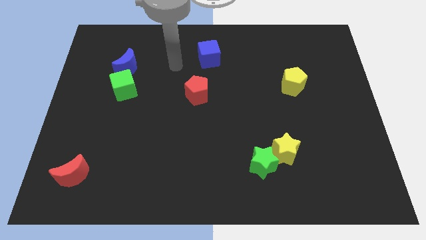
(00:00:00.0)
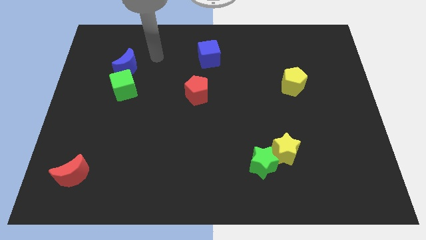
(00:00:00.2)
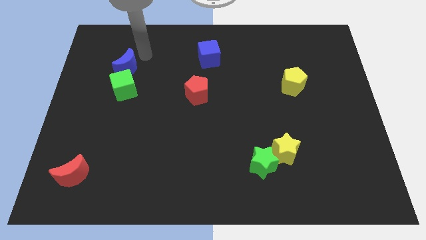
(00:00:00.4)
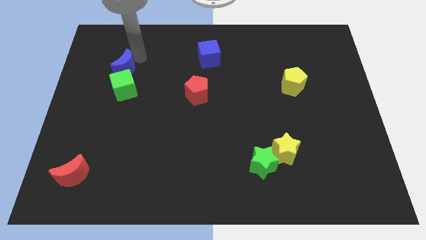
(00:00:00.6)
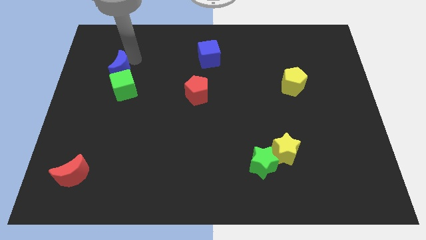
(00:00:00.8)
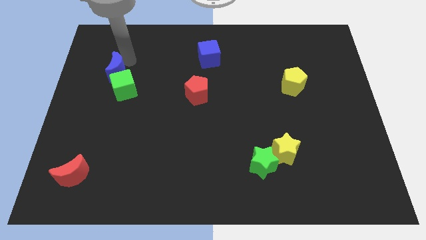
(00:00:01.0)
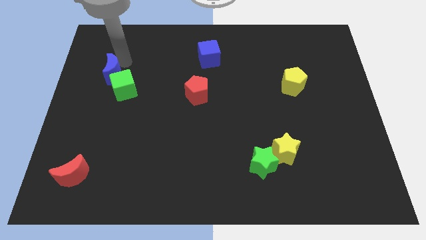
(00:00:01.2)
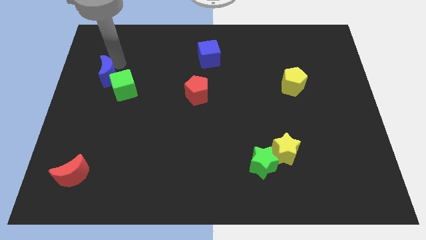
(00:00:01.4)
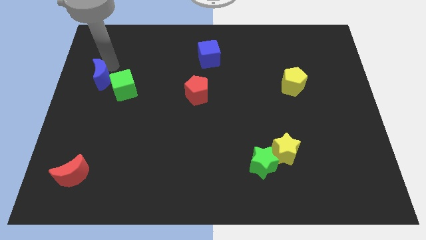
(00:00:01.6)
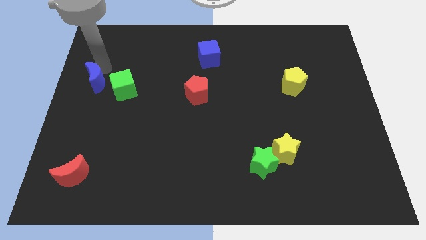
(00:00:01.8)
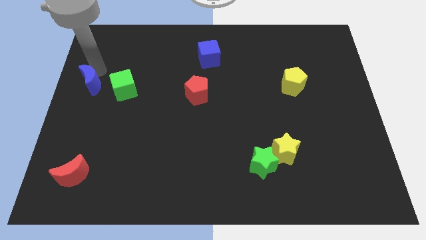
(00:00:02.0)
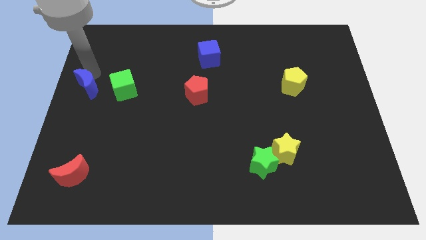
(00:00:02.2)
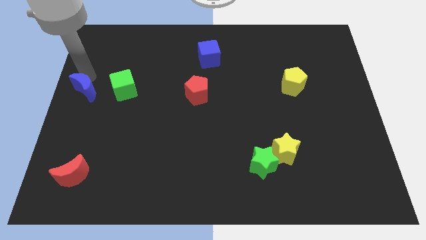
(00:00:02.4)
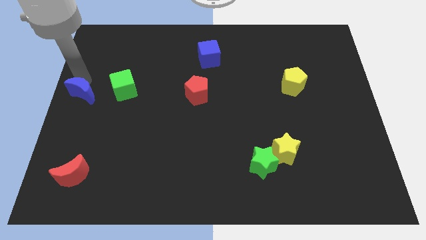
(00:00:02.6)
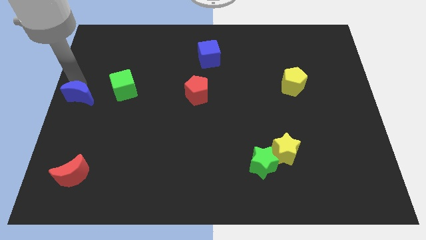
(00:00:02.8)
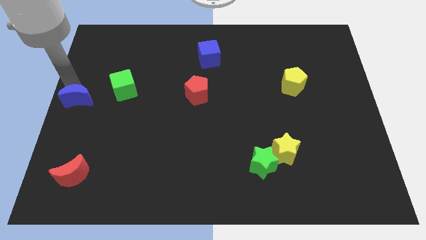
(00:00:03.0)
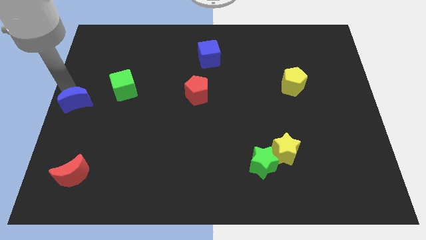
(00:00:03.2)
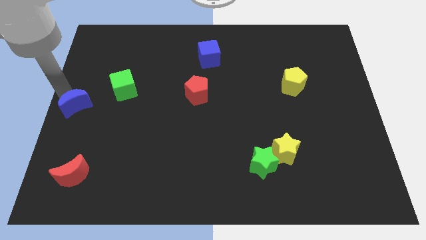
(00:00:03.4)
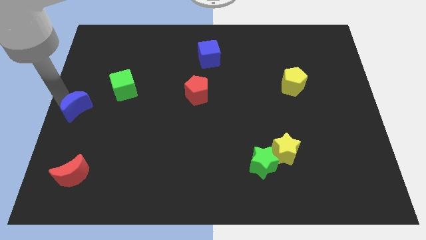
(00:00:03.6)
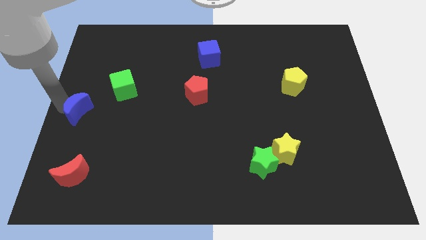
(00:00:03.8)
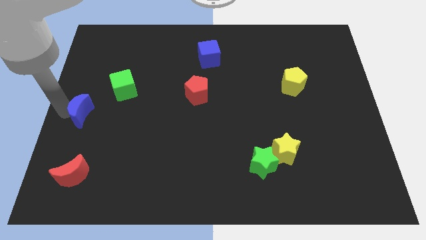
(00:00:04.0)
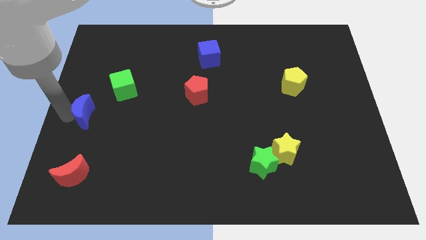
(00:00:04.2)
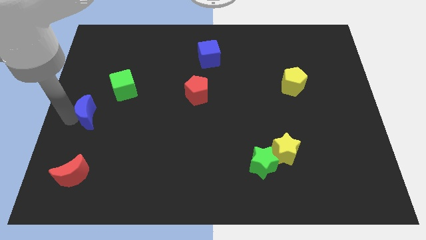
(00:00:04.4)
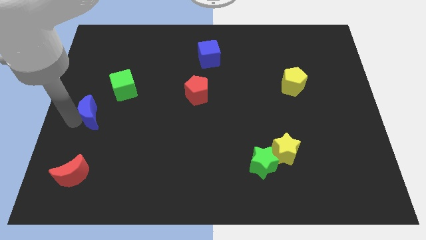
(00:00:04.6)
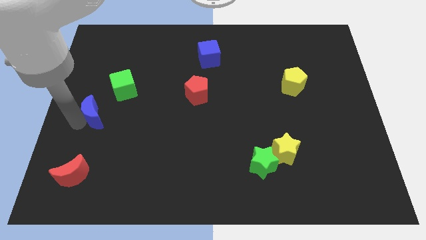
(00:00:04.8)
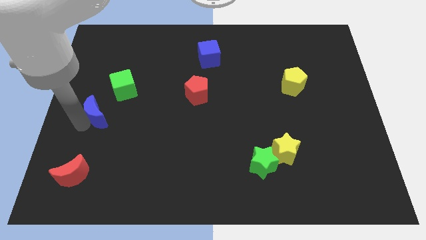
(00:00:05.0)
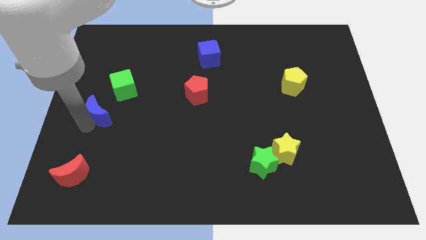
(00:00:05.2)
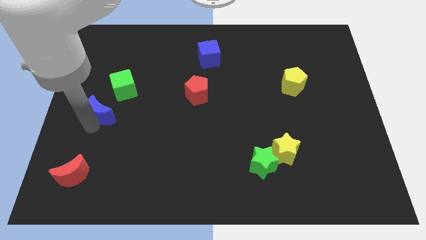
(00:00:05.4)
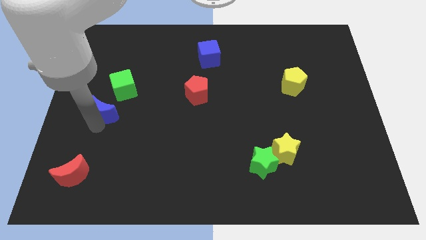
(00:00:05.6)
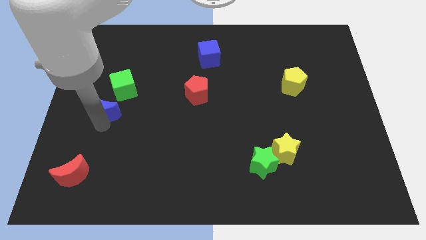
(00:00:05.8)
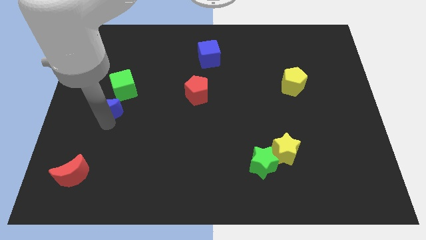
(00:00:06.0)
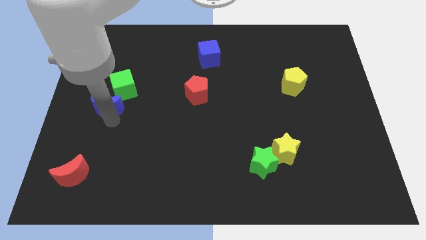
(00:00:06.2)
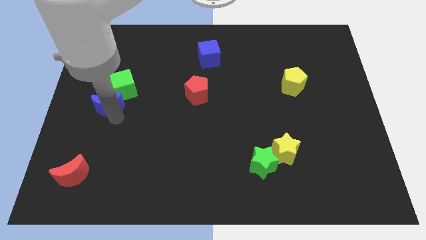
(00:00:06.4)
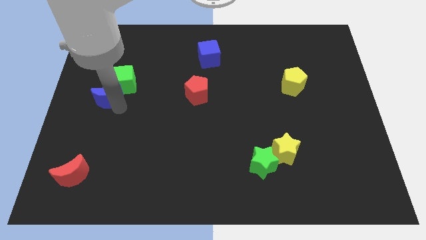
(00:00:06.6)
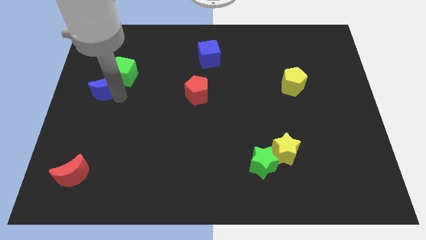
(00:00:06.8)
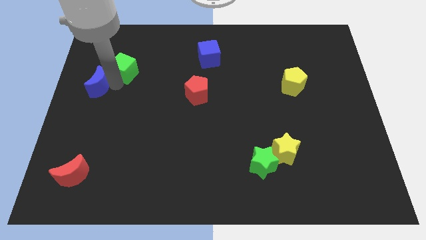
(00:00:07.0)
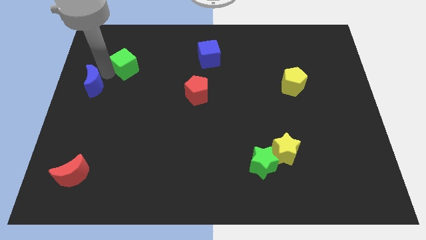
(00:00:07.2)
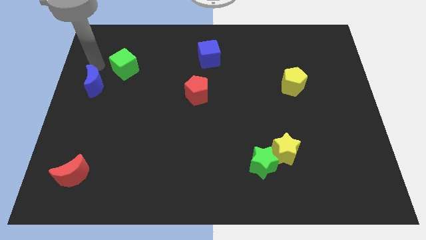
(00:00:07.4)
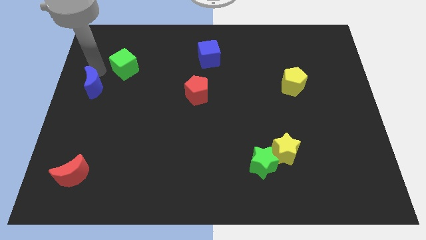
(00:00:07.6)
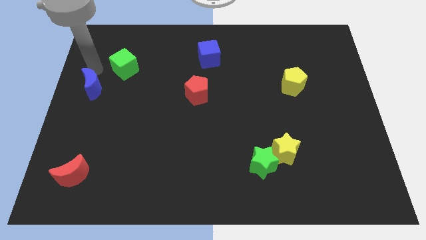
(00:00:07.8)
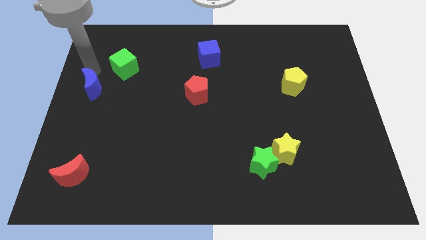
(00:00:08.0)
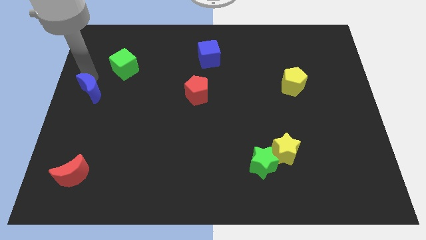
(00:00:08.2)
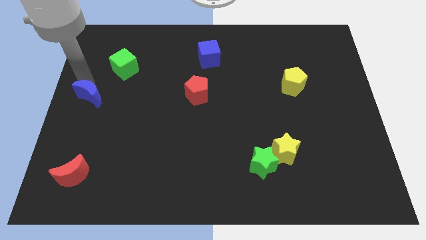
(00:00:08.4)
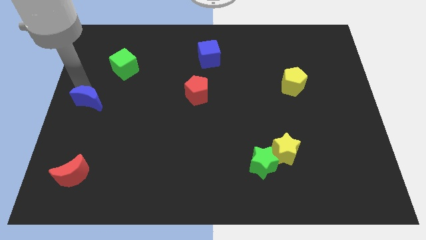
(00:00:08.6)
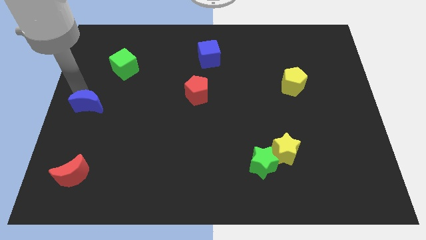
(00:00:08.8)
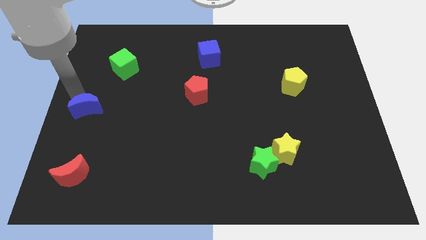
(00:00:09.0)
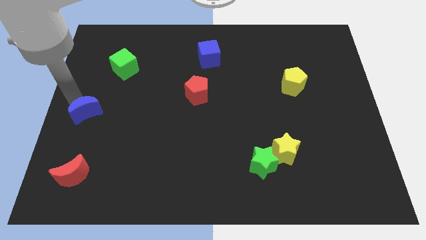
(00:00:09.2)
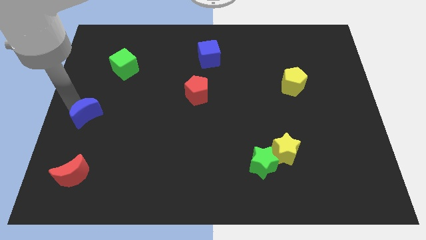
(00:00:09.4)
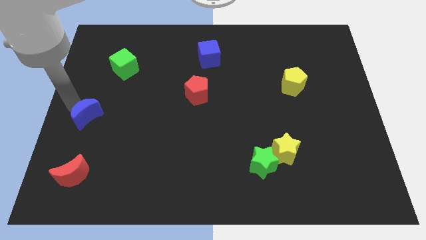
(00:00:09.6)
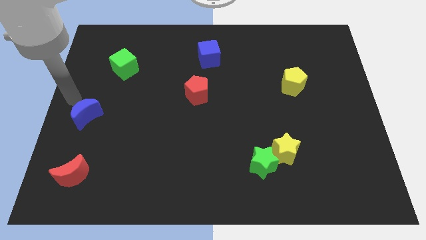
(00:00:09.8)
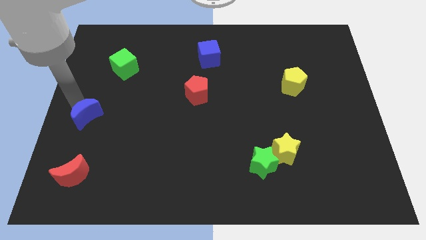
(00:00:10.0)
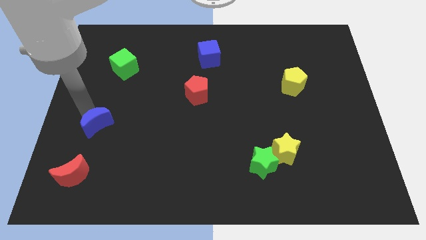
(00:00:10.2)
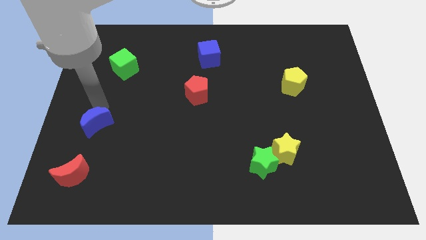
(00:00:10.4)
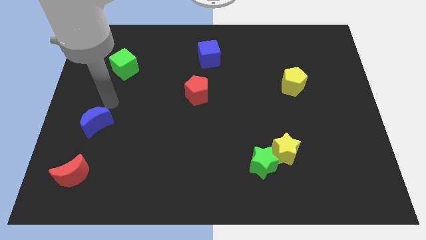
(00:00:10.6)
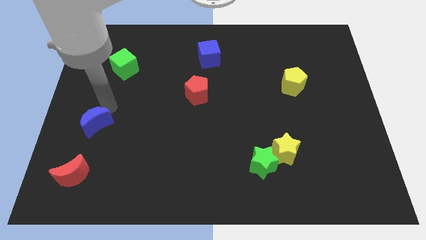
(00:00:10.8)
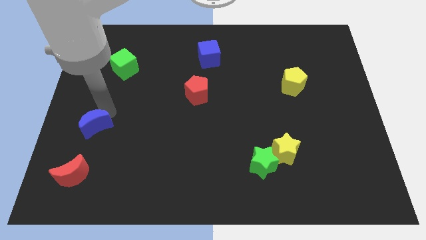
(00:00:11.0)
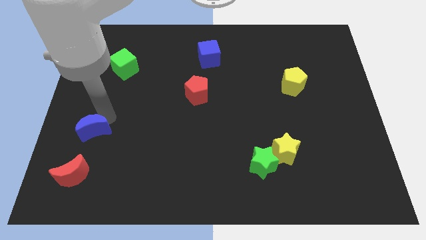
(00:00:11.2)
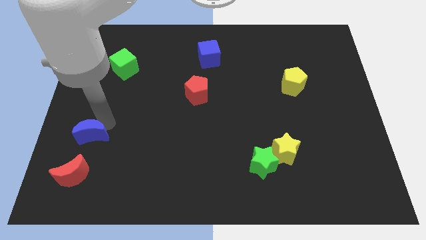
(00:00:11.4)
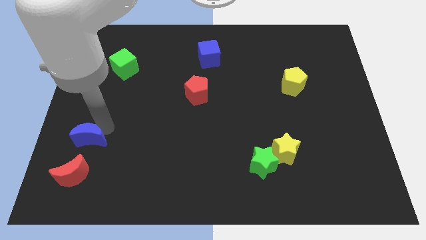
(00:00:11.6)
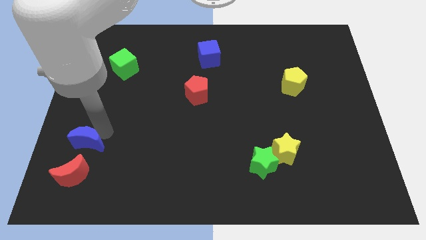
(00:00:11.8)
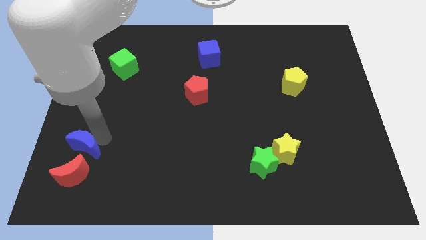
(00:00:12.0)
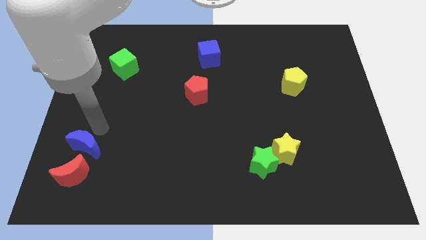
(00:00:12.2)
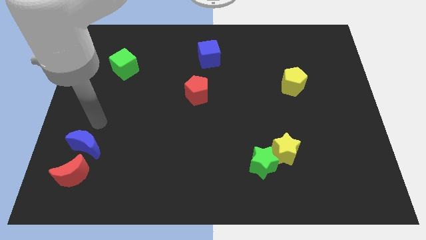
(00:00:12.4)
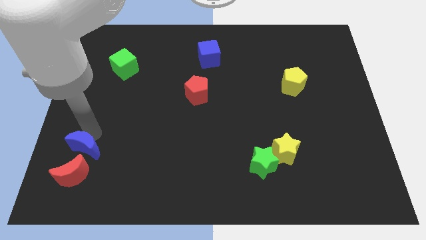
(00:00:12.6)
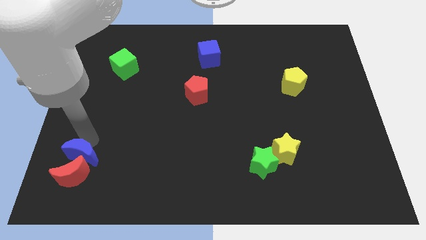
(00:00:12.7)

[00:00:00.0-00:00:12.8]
push the blue moon to the red moon
